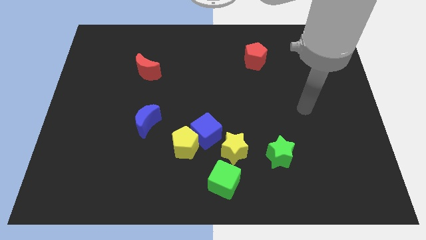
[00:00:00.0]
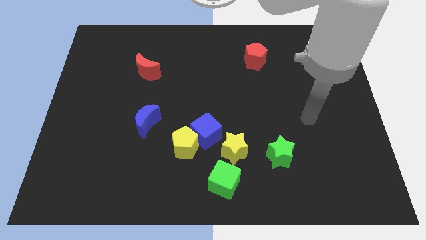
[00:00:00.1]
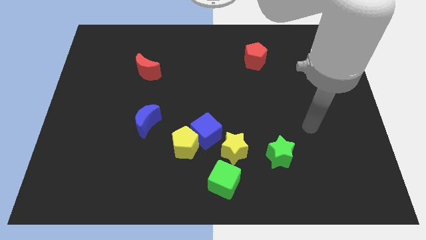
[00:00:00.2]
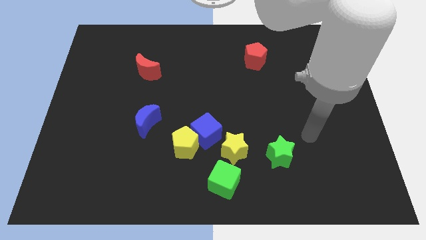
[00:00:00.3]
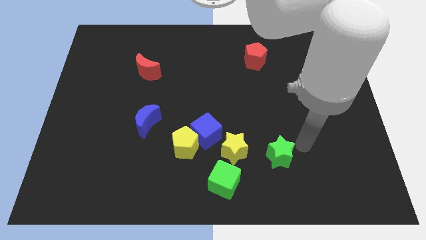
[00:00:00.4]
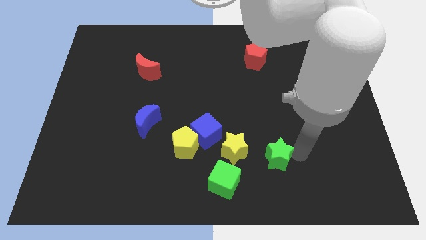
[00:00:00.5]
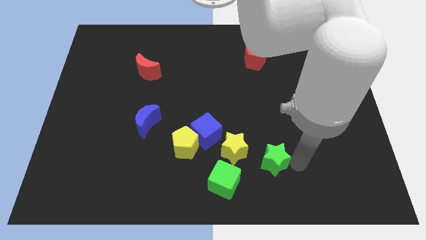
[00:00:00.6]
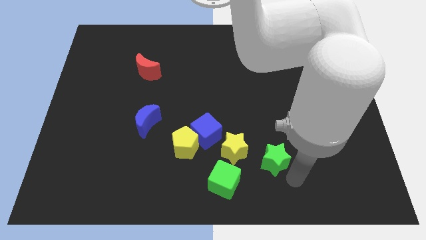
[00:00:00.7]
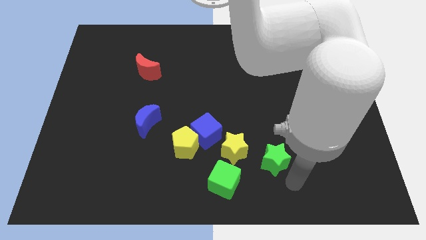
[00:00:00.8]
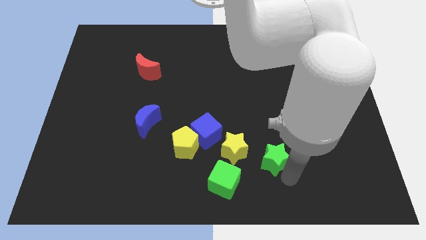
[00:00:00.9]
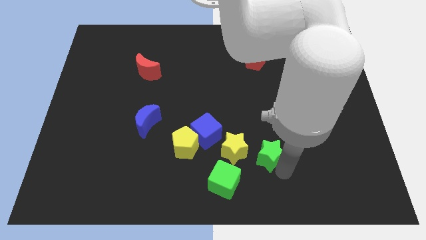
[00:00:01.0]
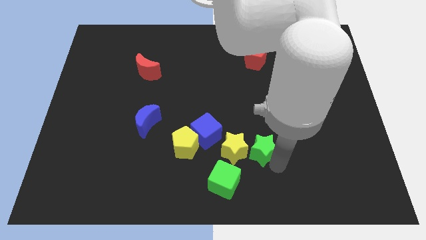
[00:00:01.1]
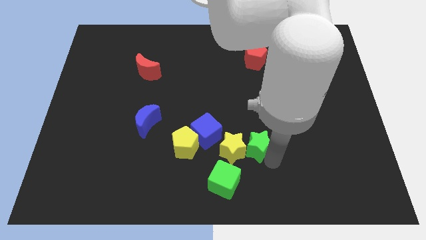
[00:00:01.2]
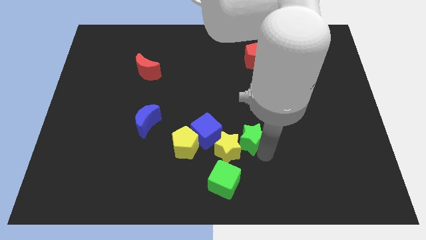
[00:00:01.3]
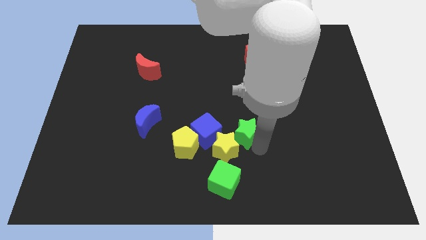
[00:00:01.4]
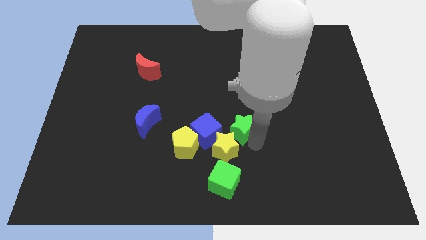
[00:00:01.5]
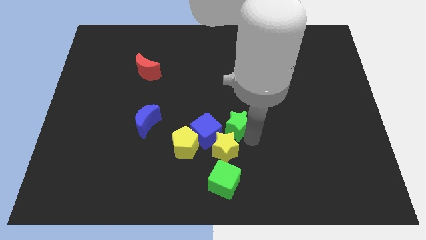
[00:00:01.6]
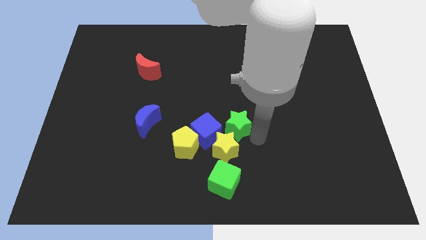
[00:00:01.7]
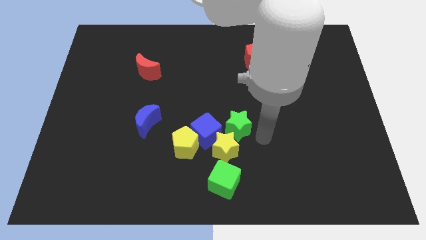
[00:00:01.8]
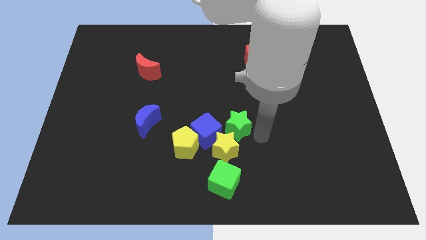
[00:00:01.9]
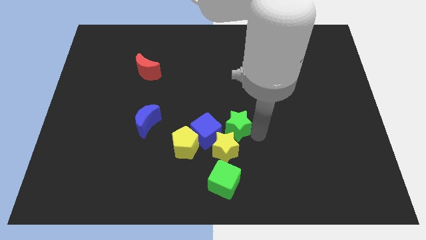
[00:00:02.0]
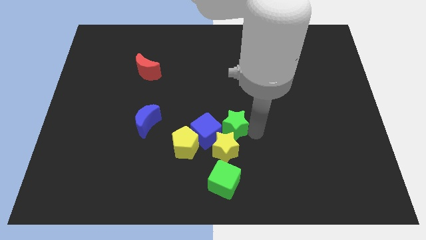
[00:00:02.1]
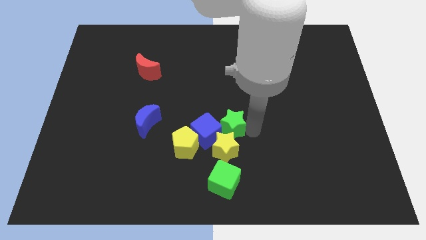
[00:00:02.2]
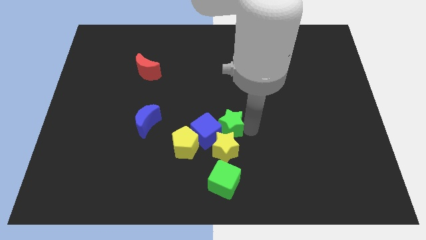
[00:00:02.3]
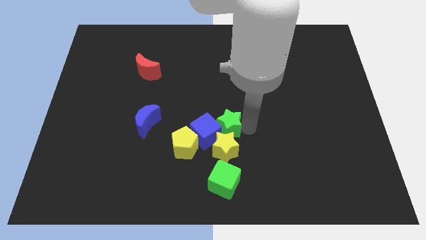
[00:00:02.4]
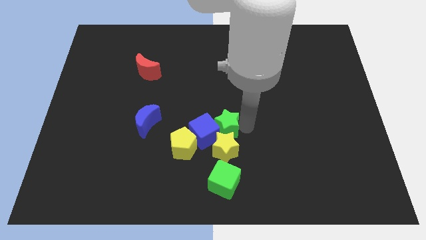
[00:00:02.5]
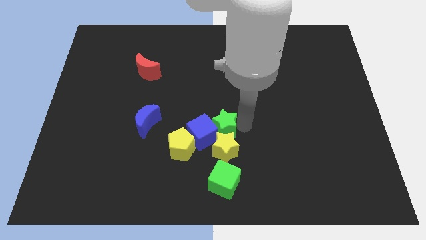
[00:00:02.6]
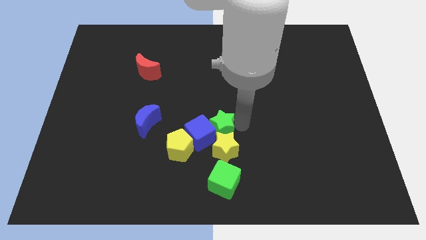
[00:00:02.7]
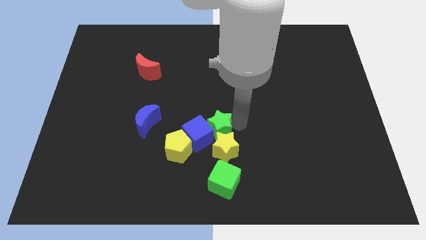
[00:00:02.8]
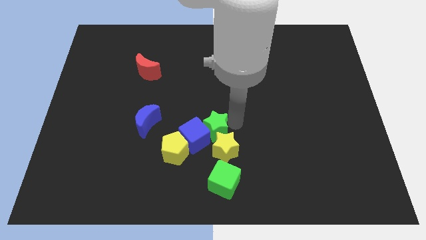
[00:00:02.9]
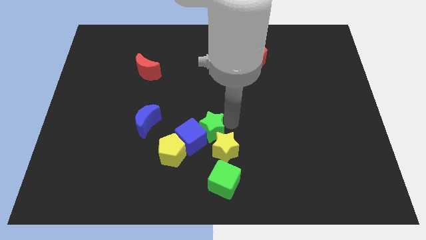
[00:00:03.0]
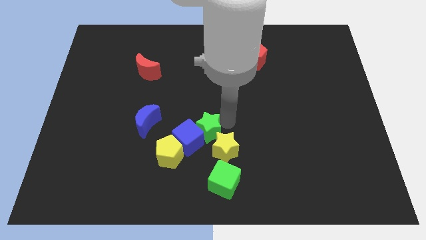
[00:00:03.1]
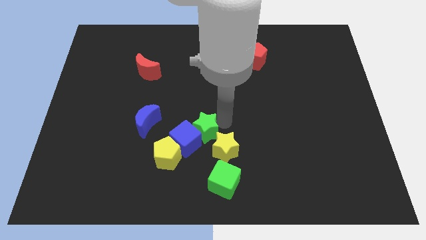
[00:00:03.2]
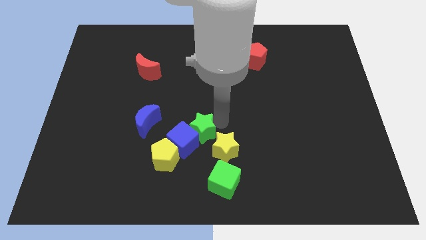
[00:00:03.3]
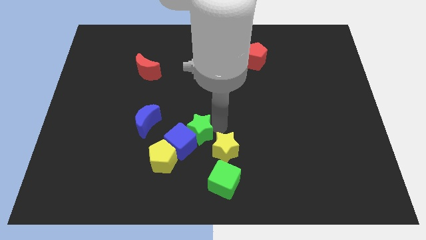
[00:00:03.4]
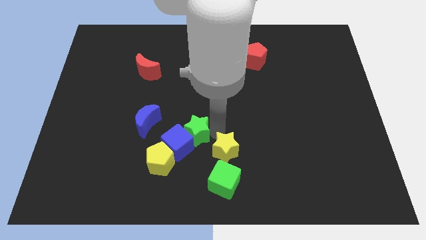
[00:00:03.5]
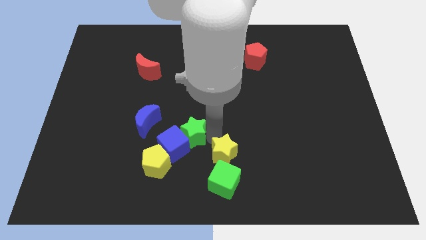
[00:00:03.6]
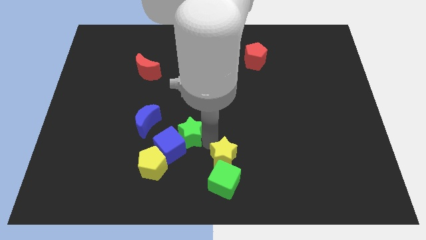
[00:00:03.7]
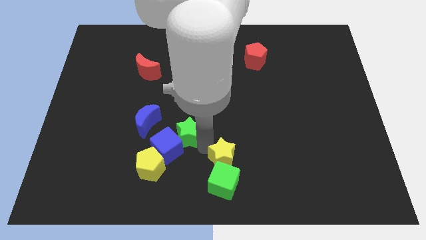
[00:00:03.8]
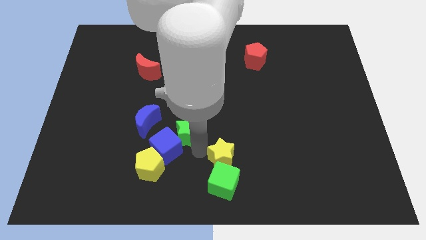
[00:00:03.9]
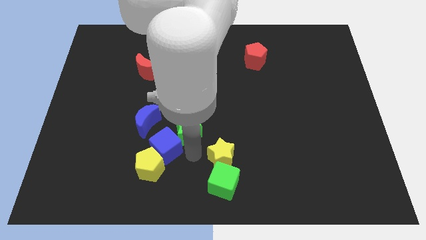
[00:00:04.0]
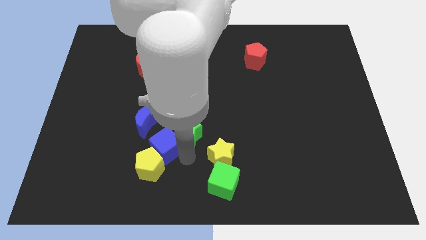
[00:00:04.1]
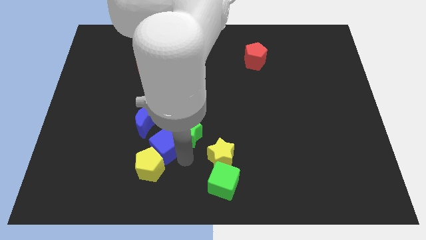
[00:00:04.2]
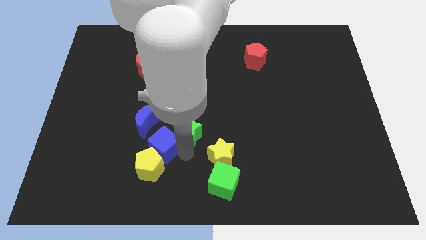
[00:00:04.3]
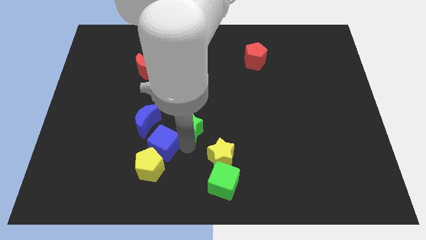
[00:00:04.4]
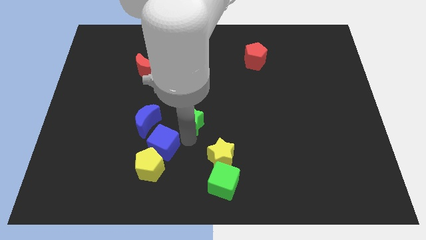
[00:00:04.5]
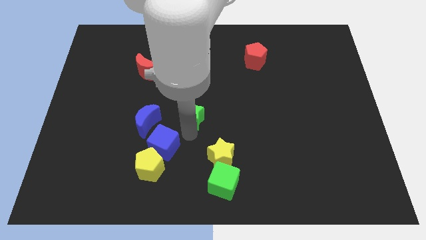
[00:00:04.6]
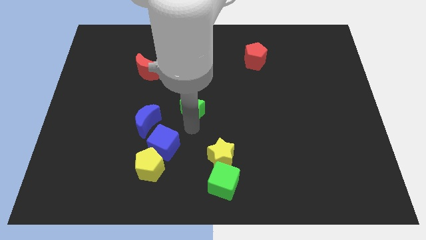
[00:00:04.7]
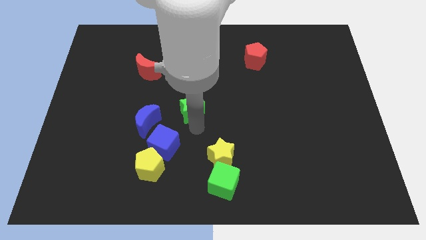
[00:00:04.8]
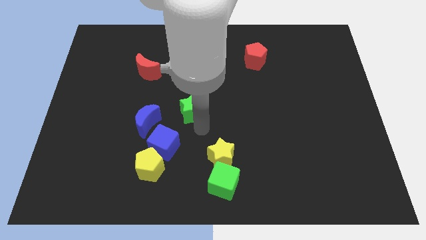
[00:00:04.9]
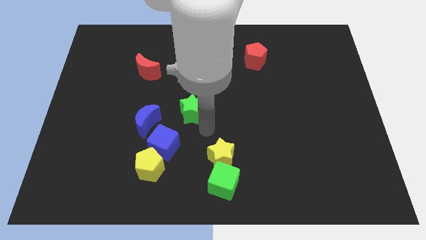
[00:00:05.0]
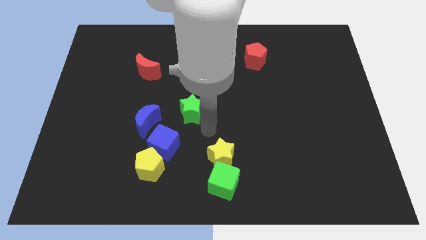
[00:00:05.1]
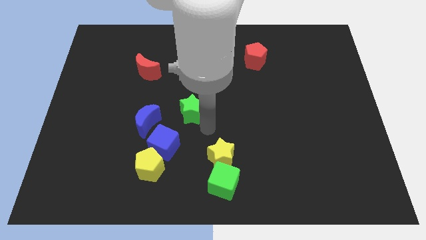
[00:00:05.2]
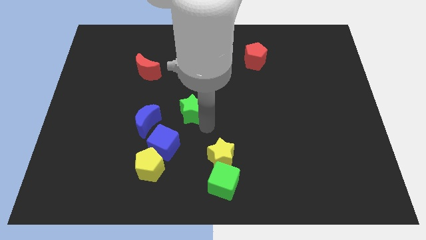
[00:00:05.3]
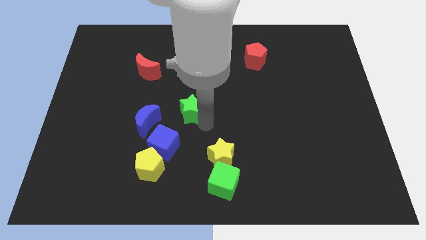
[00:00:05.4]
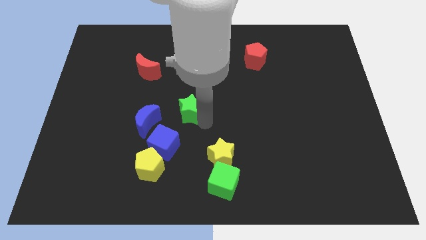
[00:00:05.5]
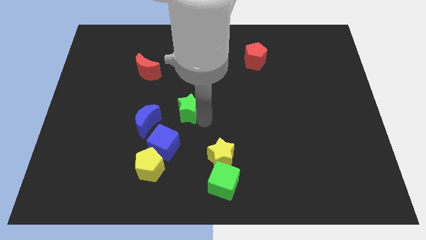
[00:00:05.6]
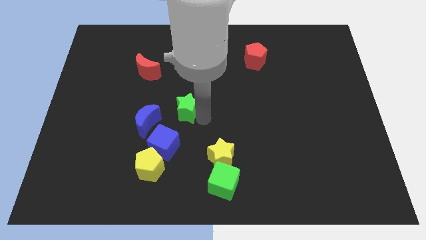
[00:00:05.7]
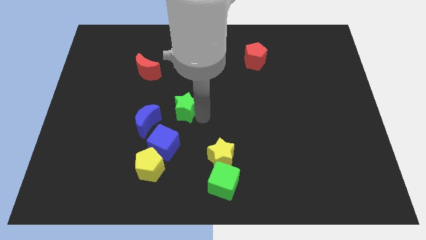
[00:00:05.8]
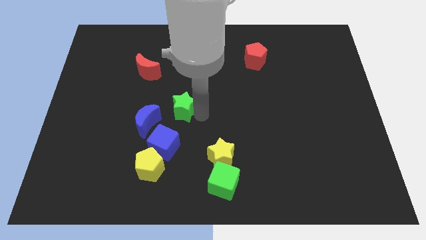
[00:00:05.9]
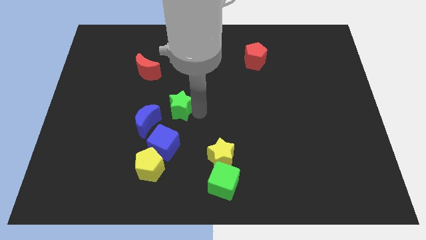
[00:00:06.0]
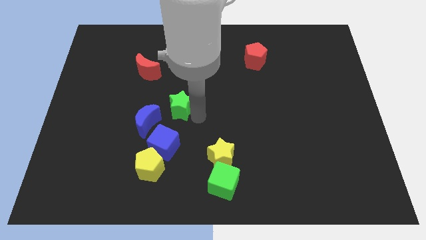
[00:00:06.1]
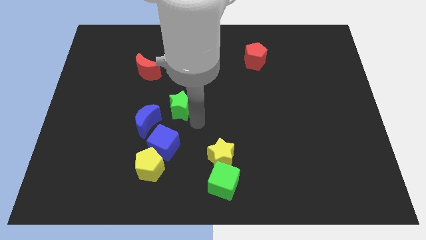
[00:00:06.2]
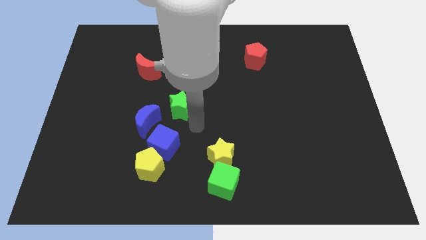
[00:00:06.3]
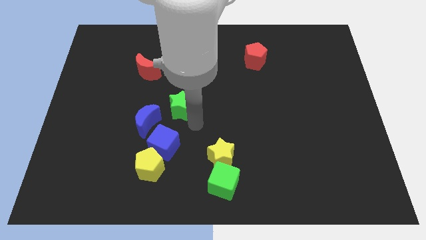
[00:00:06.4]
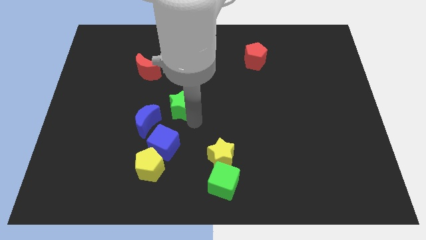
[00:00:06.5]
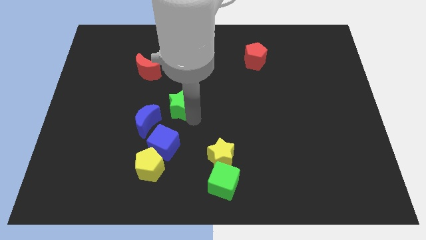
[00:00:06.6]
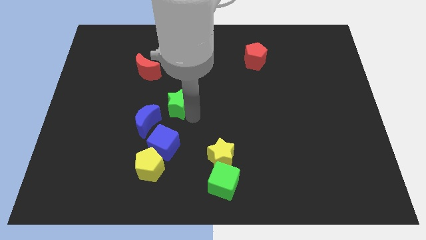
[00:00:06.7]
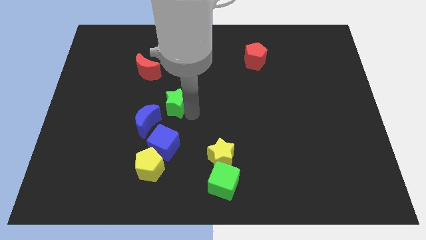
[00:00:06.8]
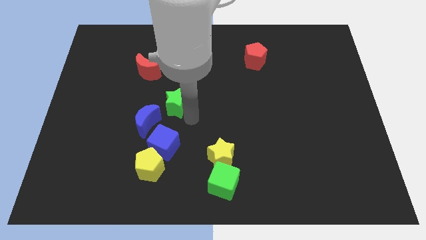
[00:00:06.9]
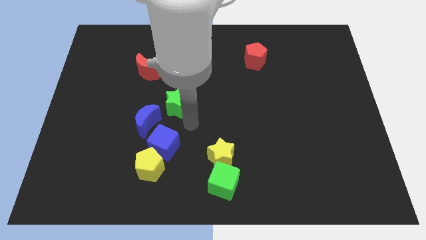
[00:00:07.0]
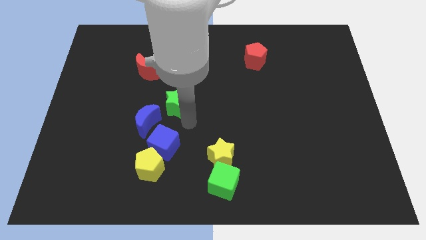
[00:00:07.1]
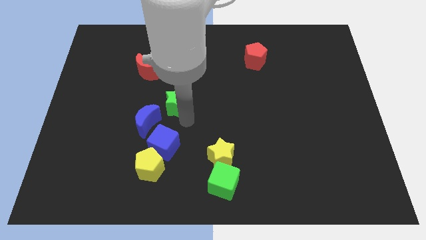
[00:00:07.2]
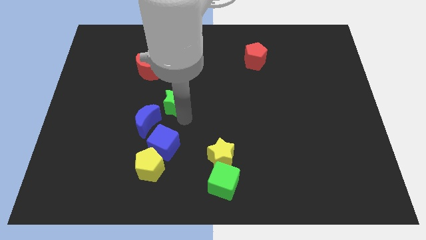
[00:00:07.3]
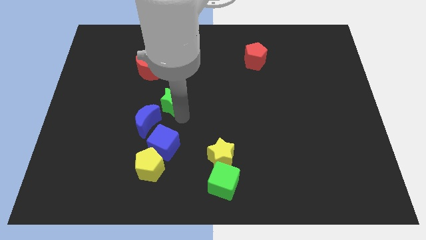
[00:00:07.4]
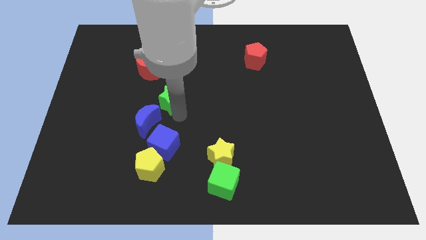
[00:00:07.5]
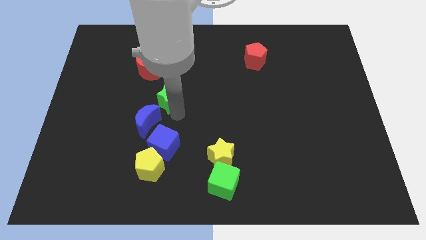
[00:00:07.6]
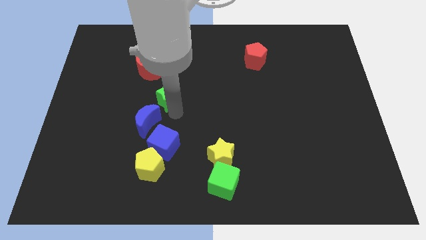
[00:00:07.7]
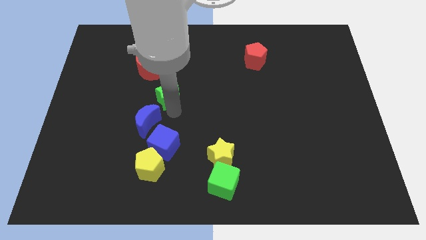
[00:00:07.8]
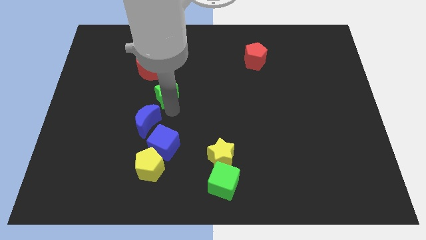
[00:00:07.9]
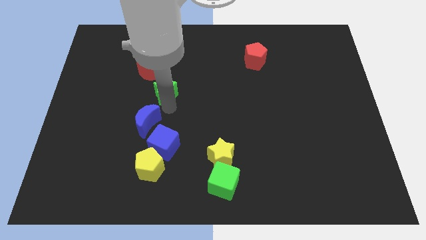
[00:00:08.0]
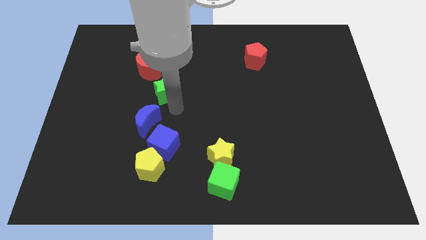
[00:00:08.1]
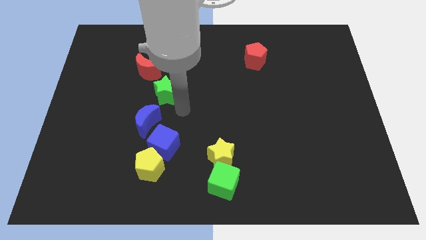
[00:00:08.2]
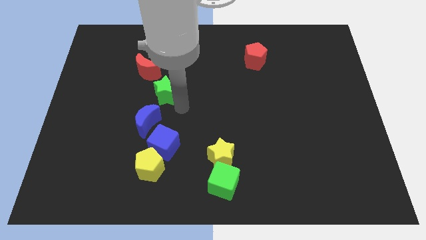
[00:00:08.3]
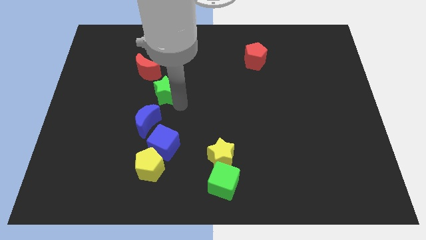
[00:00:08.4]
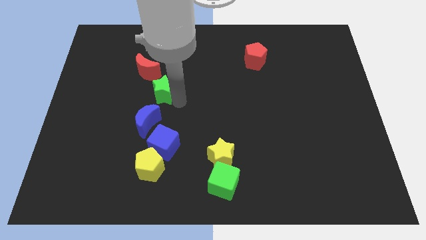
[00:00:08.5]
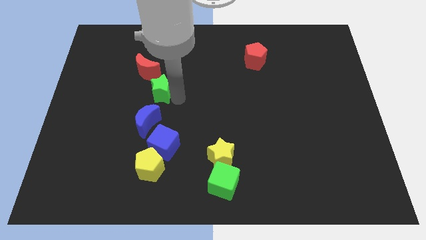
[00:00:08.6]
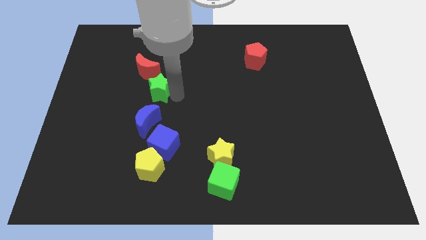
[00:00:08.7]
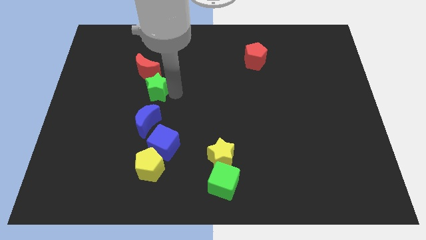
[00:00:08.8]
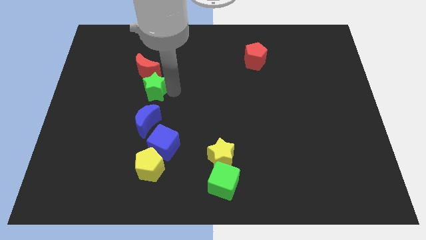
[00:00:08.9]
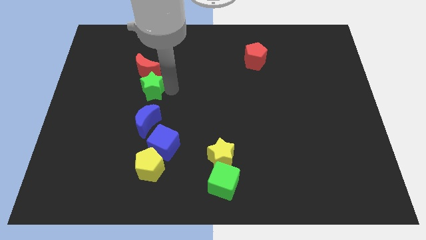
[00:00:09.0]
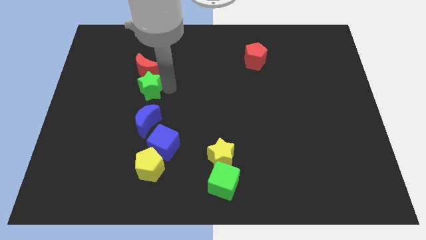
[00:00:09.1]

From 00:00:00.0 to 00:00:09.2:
put the green star to the red moon
